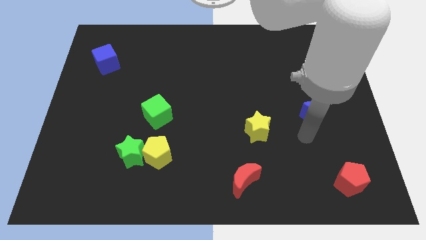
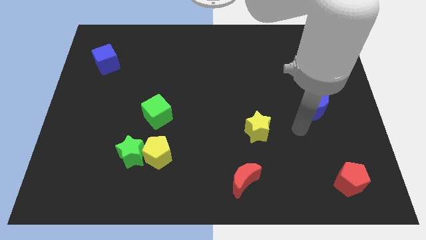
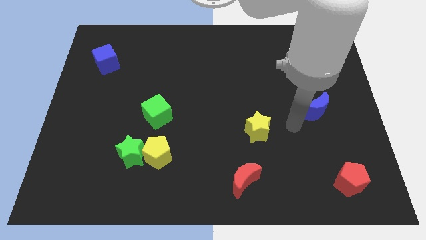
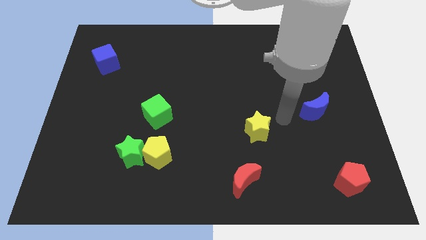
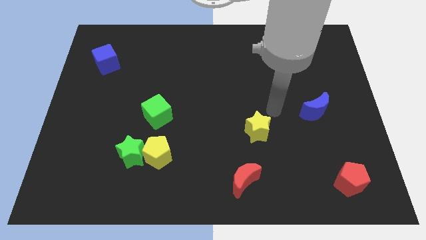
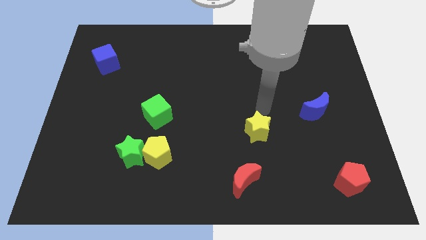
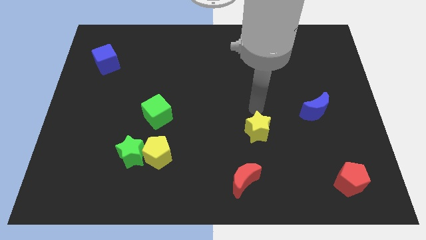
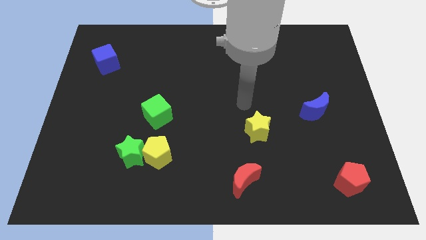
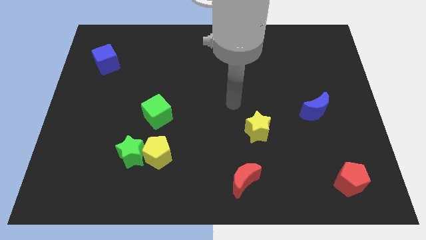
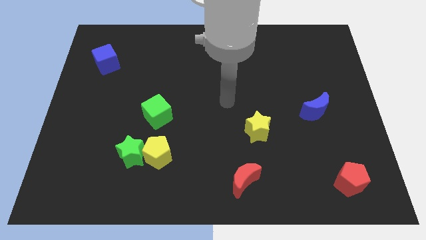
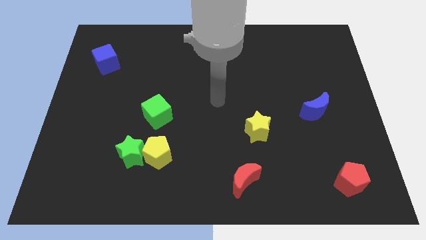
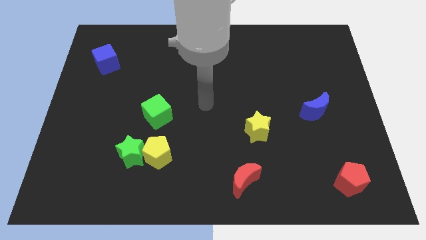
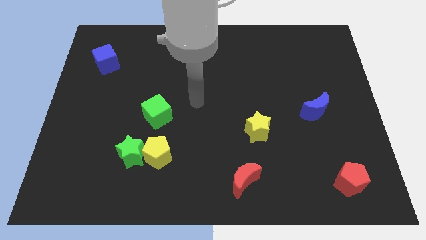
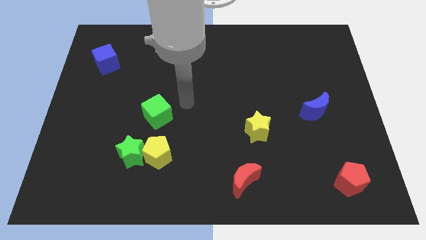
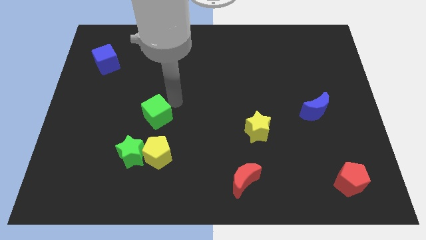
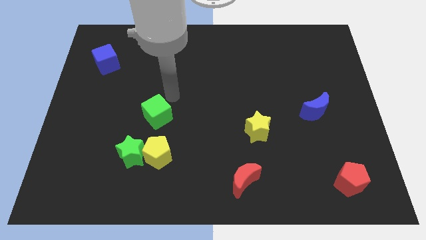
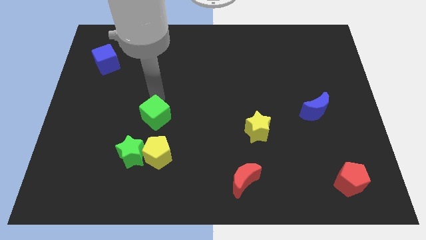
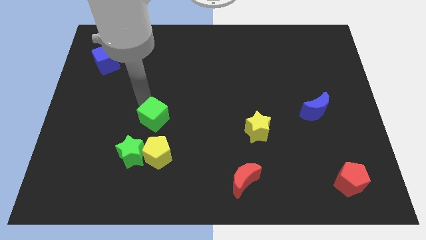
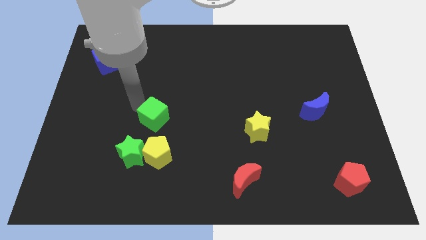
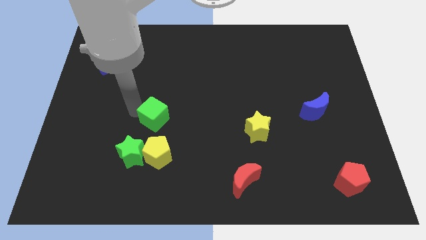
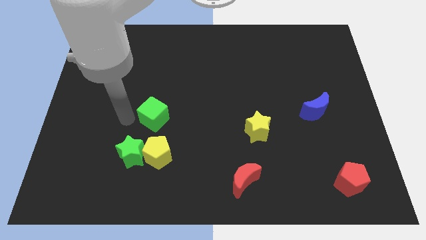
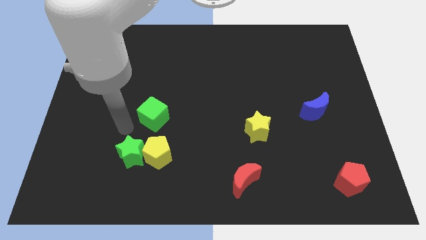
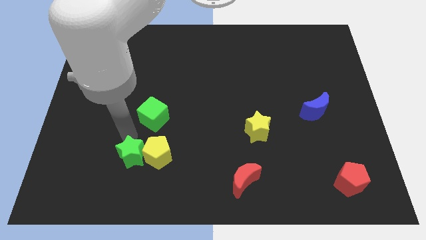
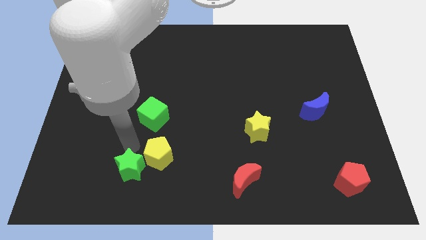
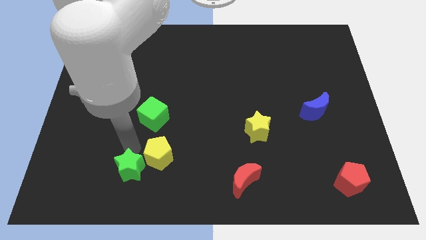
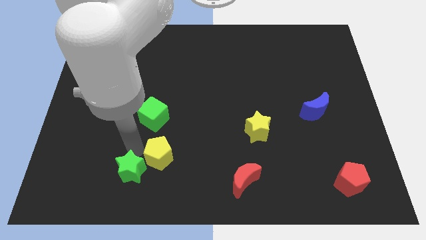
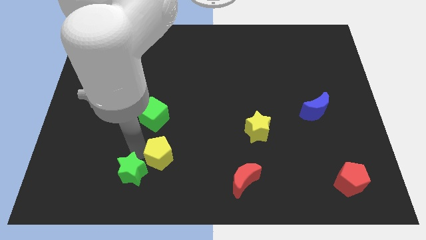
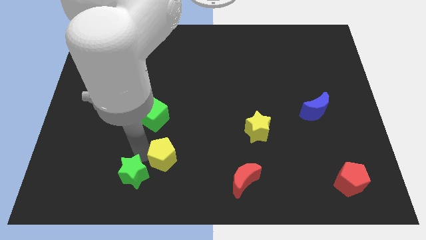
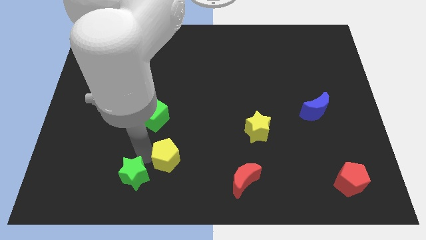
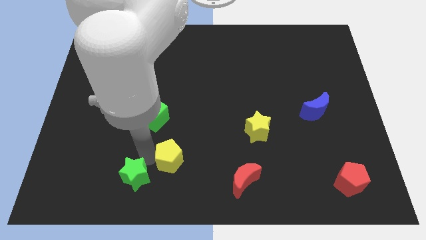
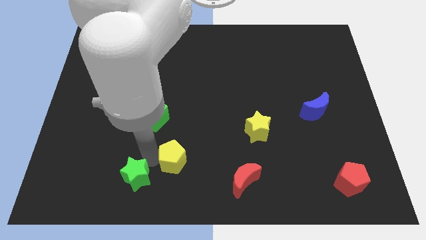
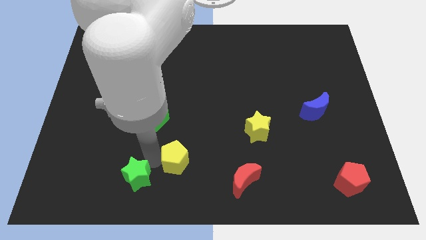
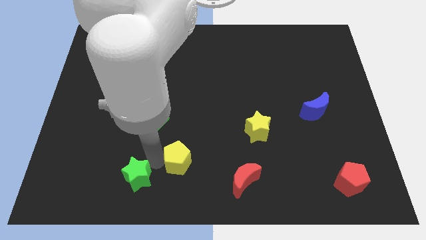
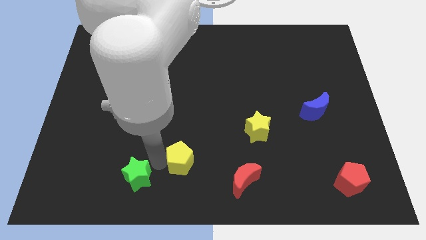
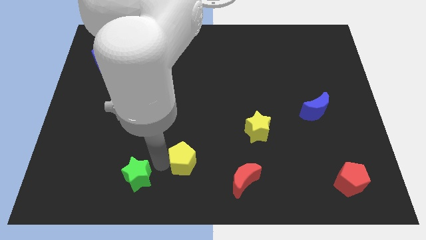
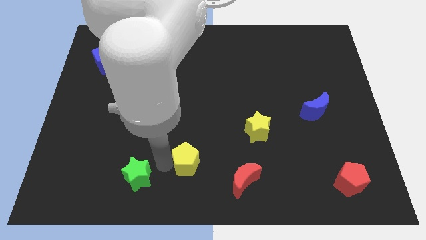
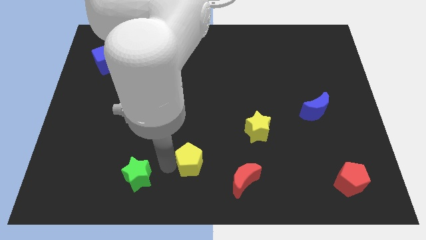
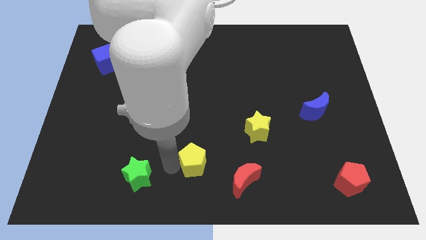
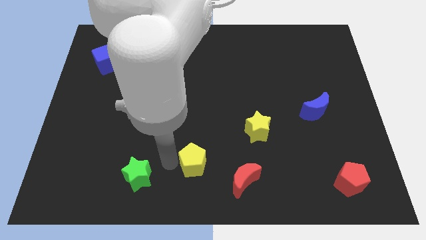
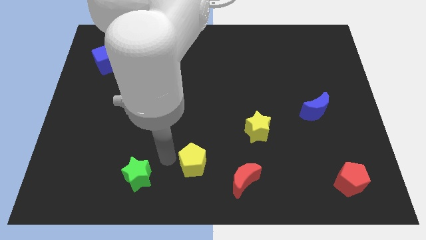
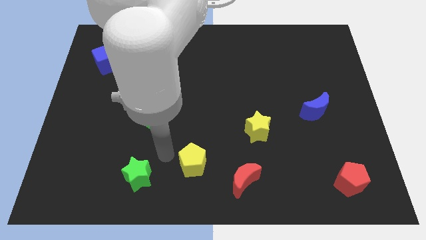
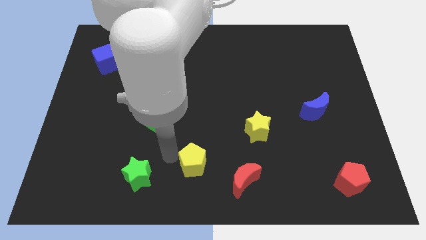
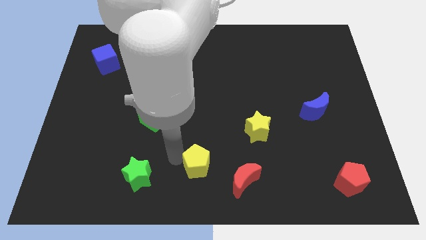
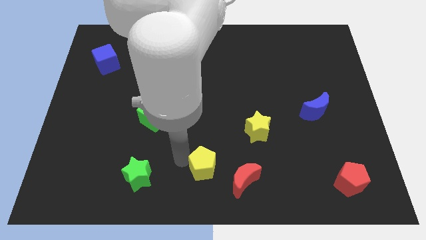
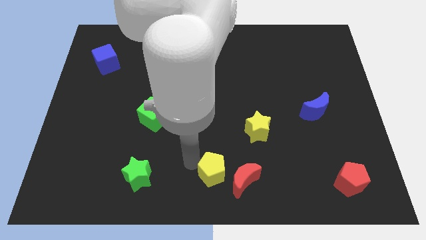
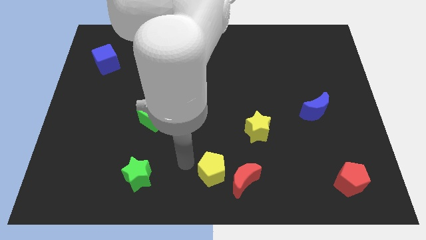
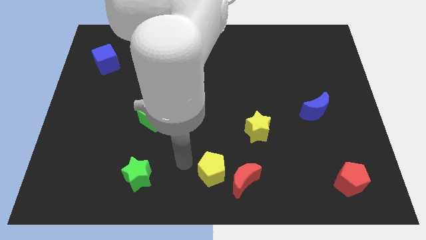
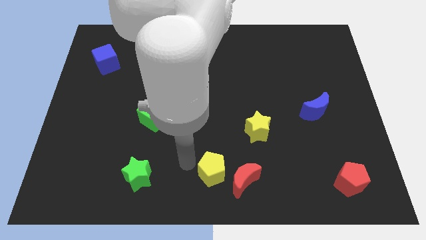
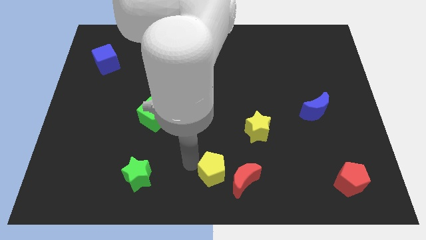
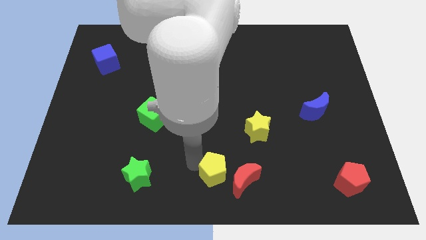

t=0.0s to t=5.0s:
push the yellow pentagon to the red moon

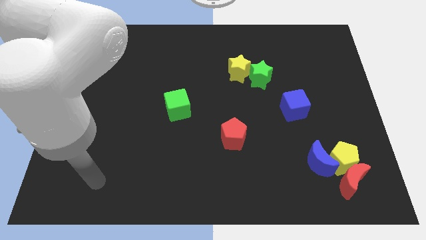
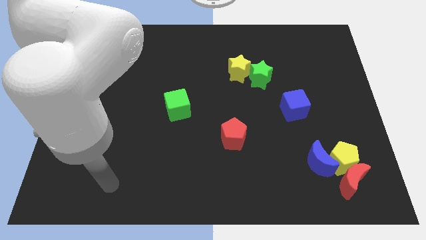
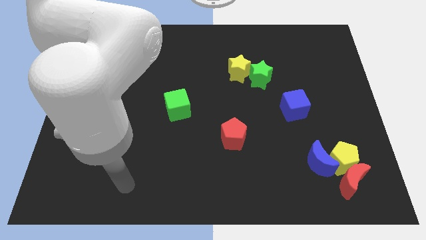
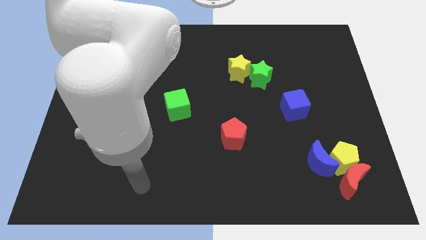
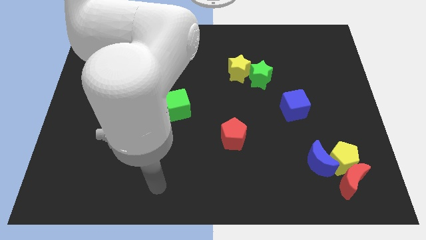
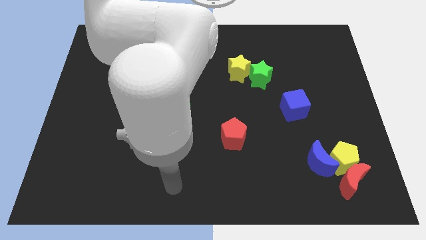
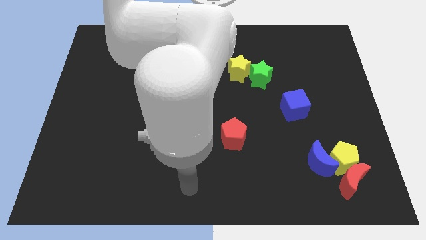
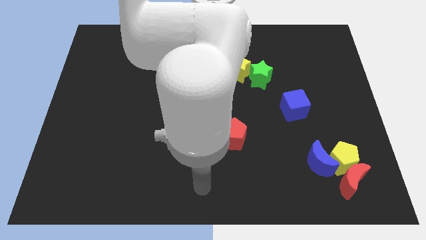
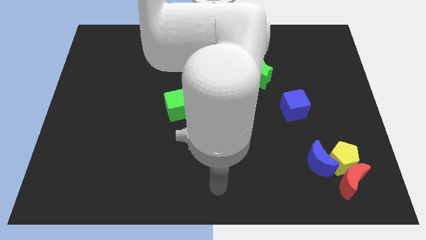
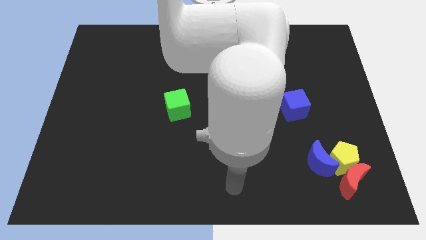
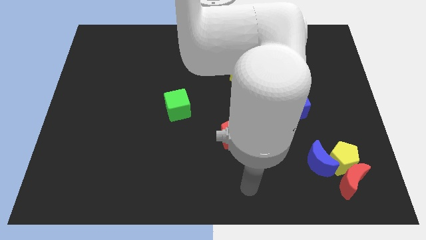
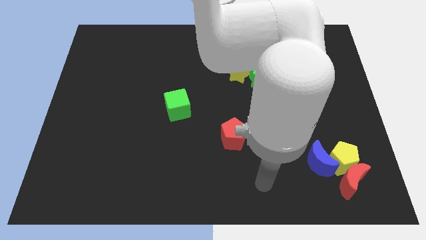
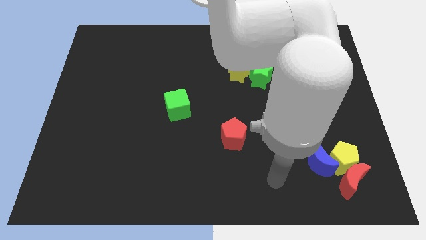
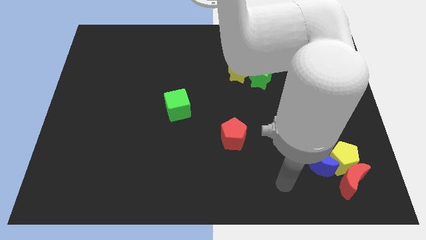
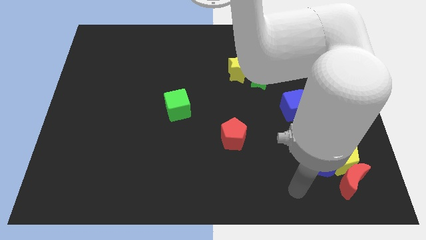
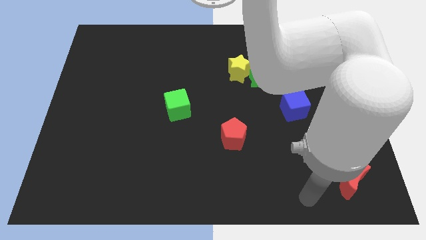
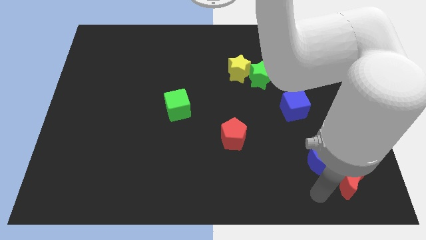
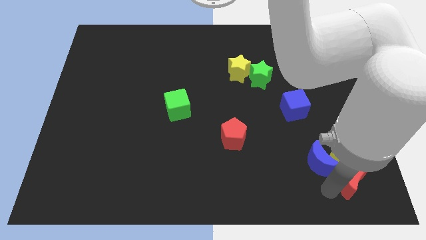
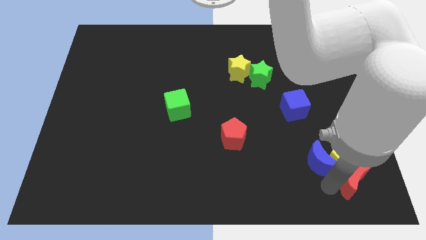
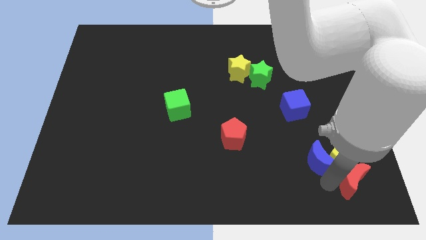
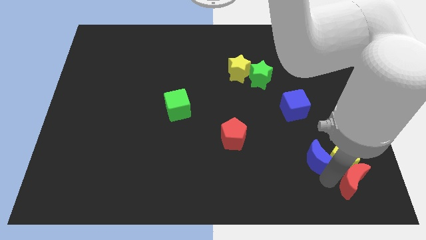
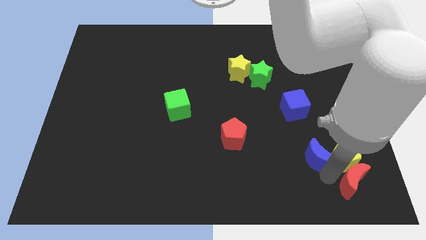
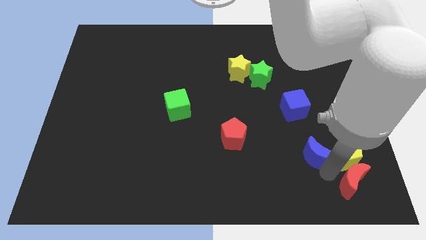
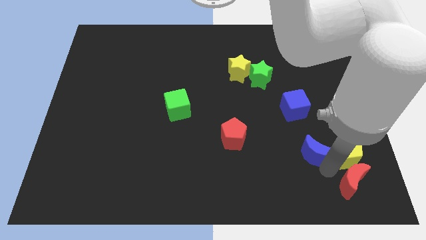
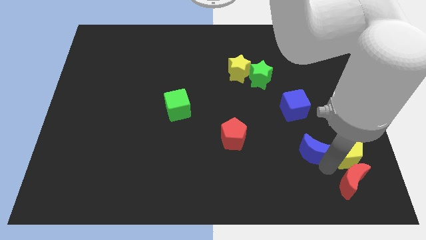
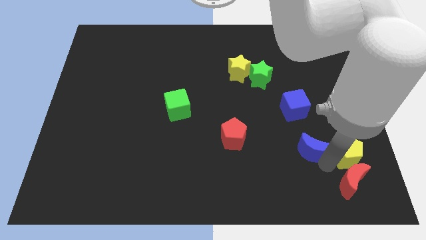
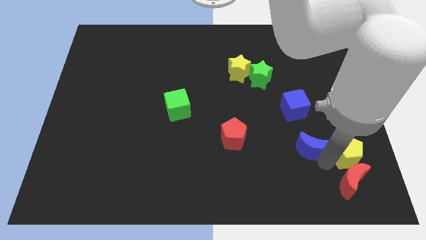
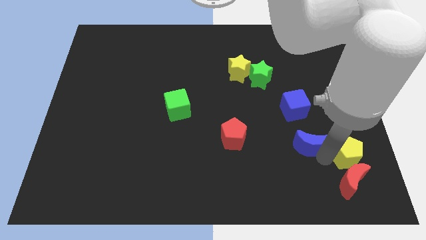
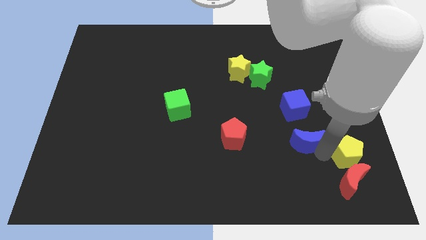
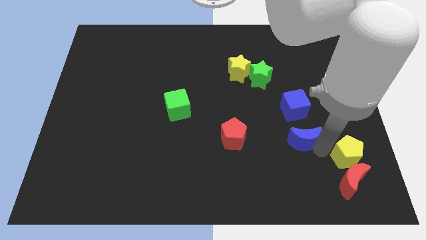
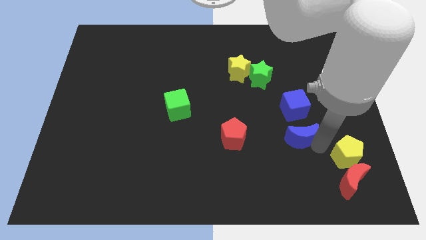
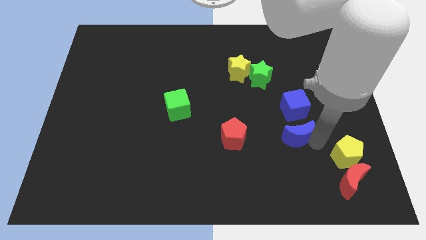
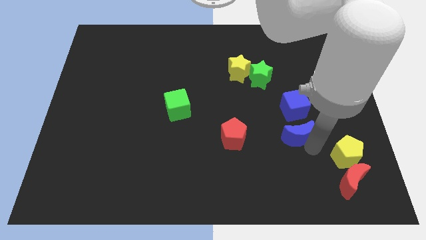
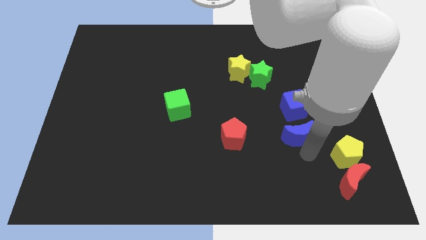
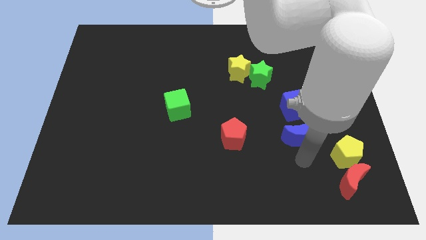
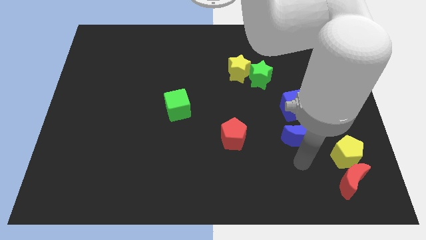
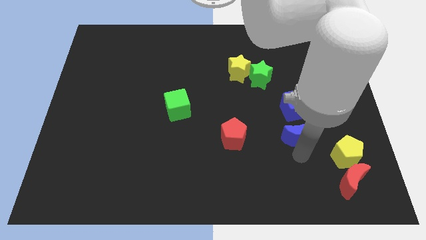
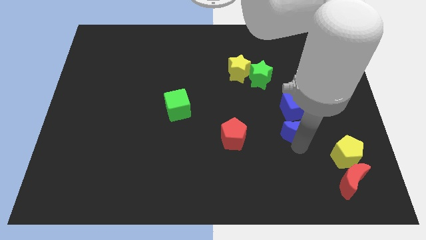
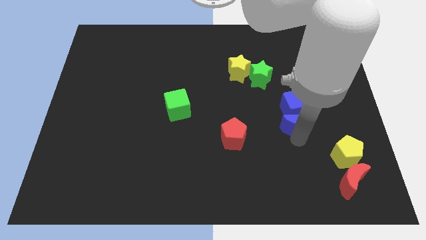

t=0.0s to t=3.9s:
put the blue moon towards the blue cube
